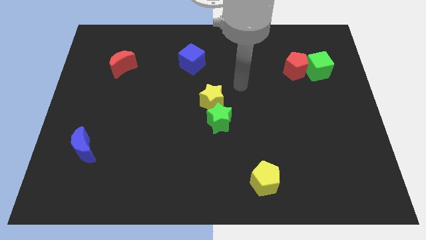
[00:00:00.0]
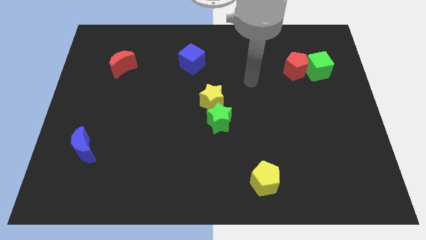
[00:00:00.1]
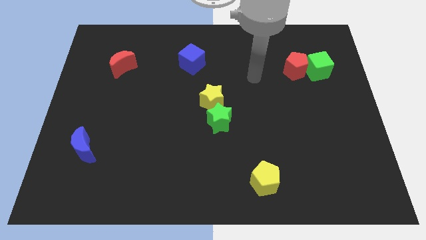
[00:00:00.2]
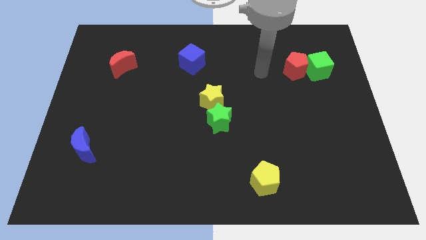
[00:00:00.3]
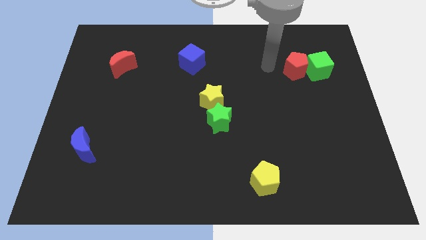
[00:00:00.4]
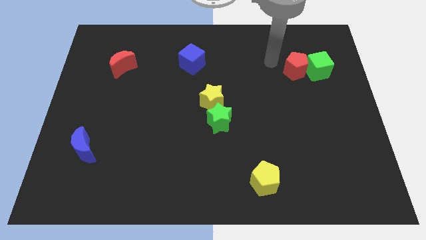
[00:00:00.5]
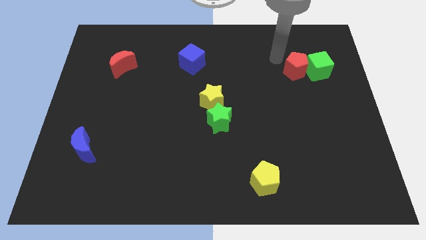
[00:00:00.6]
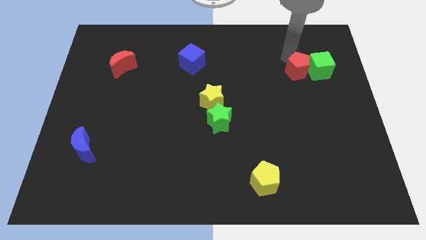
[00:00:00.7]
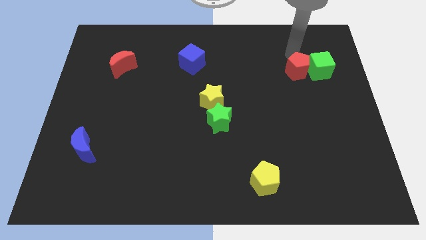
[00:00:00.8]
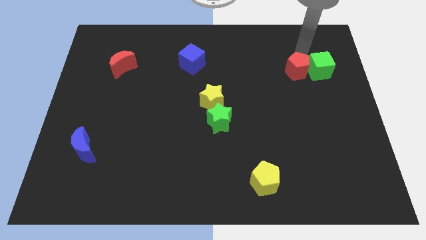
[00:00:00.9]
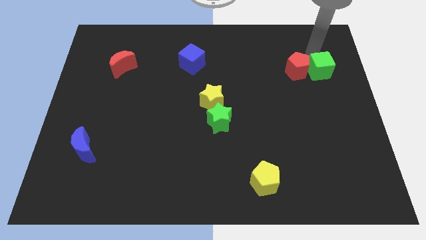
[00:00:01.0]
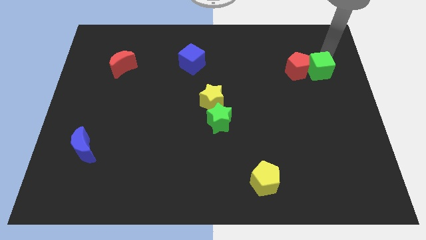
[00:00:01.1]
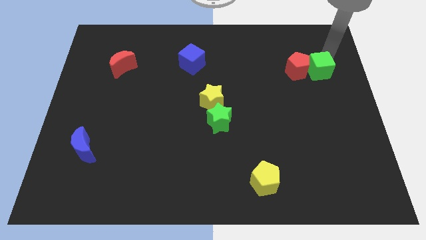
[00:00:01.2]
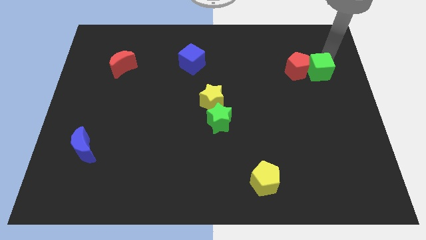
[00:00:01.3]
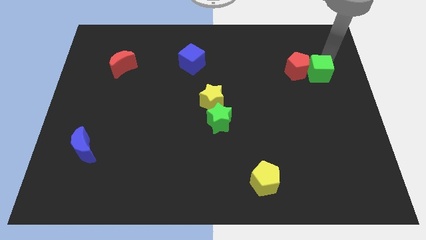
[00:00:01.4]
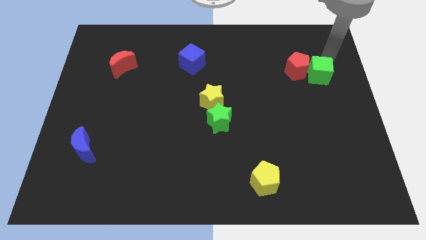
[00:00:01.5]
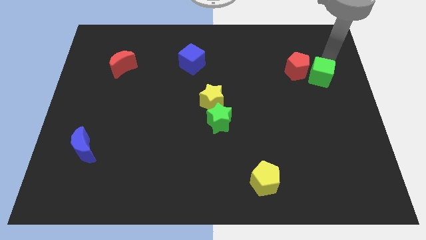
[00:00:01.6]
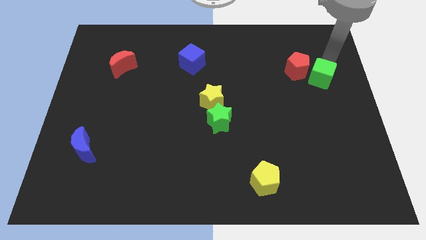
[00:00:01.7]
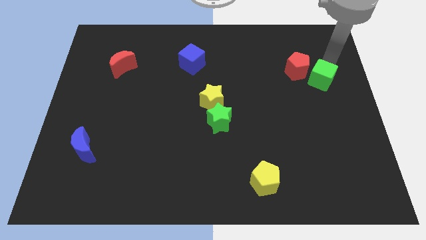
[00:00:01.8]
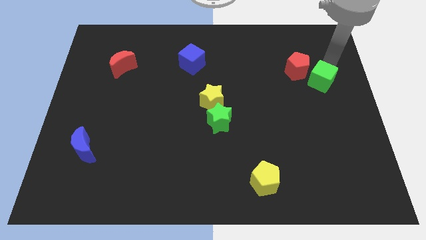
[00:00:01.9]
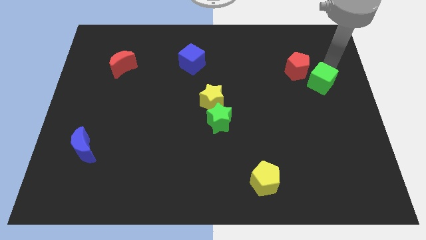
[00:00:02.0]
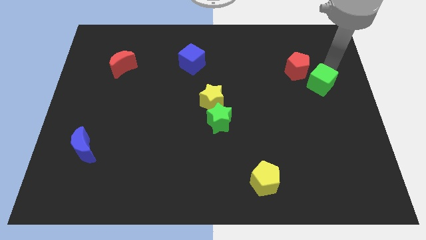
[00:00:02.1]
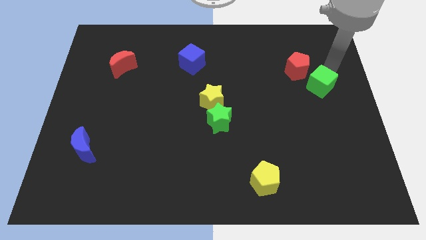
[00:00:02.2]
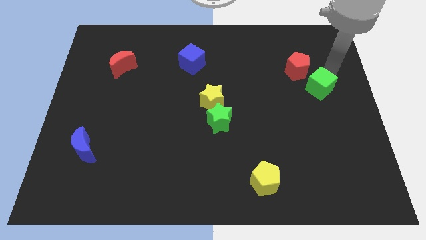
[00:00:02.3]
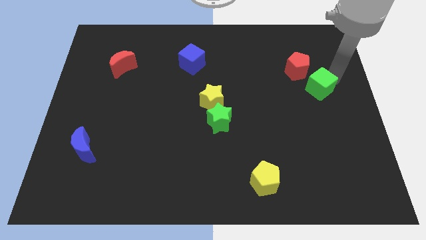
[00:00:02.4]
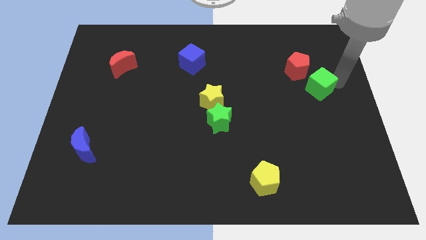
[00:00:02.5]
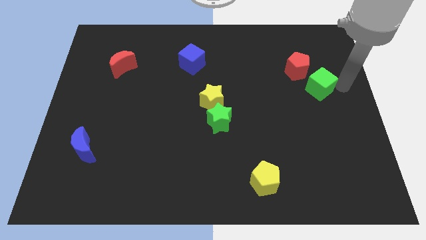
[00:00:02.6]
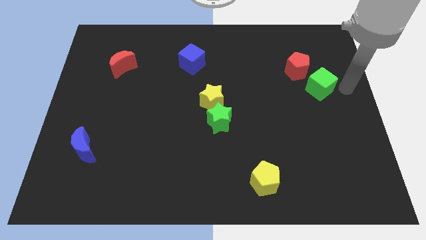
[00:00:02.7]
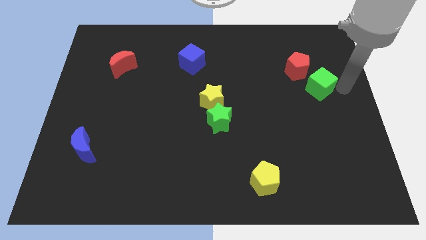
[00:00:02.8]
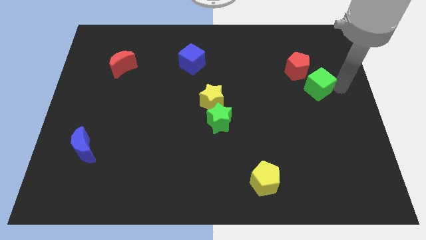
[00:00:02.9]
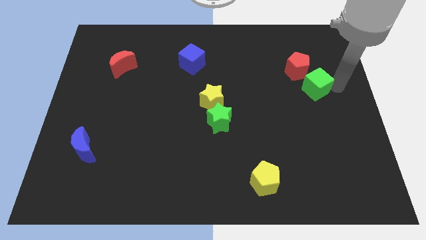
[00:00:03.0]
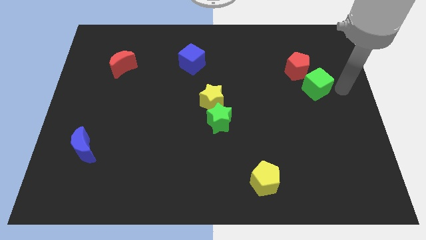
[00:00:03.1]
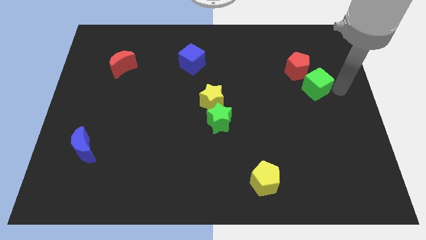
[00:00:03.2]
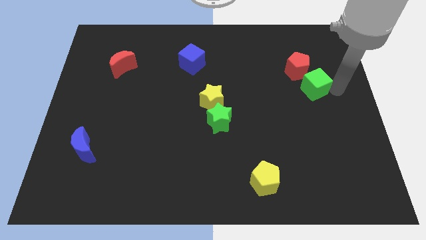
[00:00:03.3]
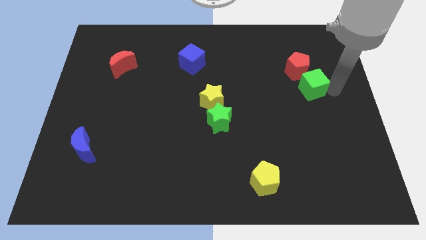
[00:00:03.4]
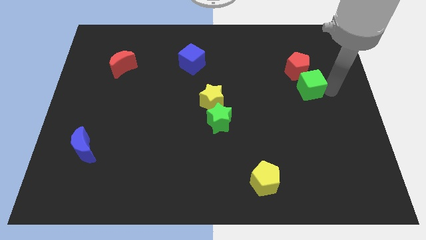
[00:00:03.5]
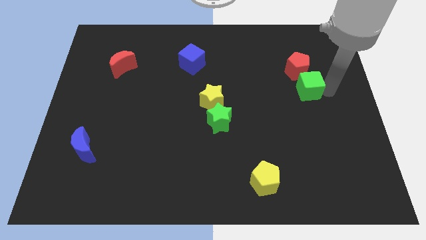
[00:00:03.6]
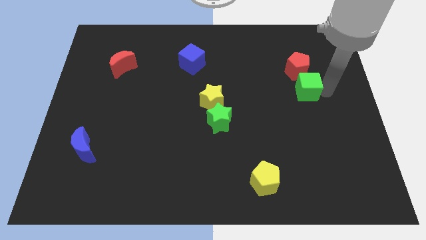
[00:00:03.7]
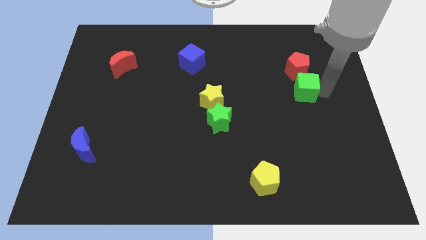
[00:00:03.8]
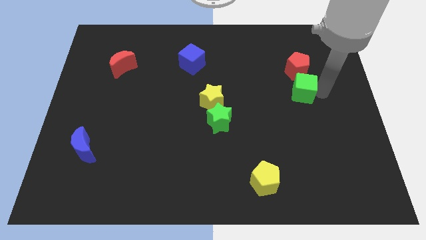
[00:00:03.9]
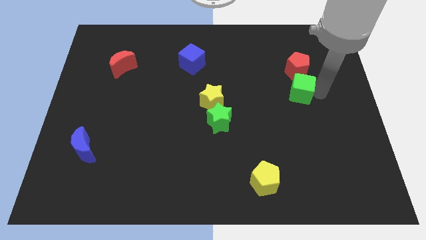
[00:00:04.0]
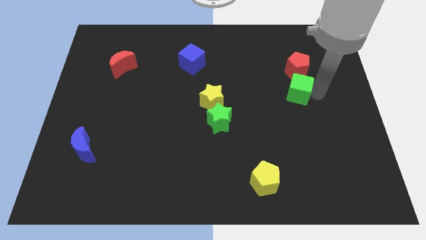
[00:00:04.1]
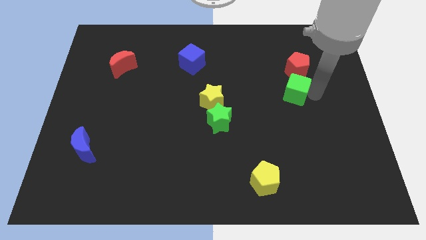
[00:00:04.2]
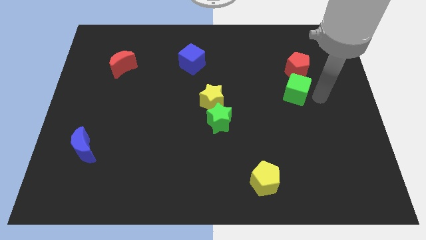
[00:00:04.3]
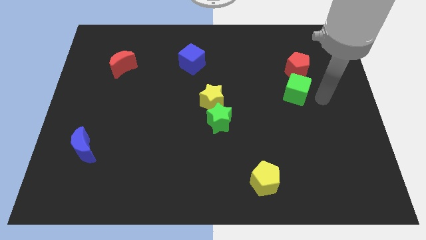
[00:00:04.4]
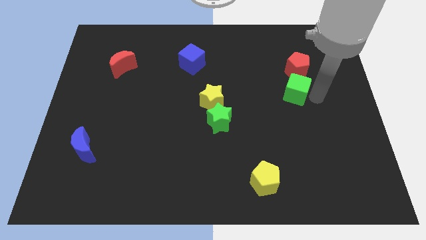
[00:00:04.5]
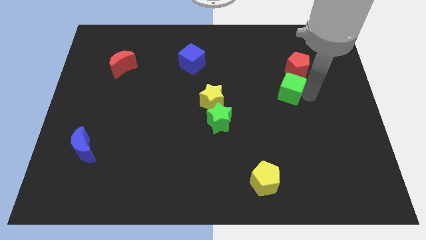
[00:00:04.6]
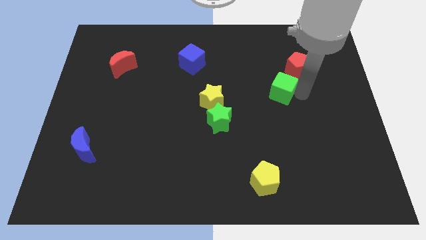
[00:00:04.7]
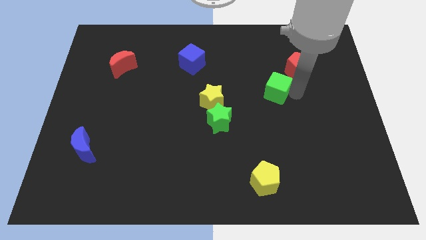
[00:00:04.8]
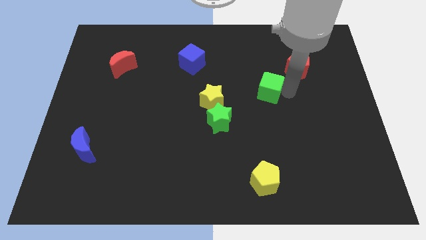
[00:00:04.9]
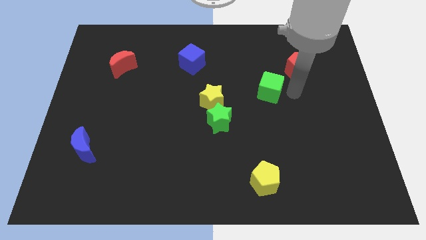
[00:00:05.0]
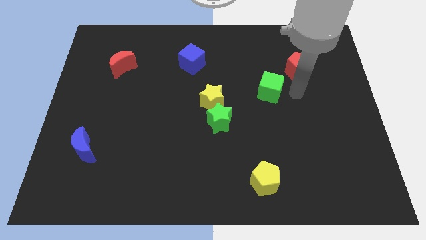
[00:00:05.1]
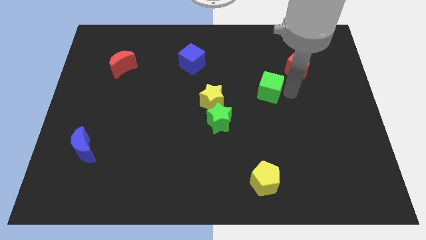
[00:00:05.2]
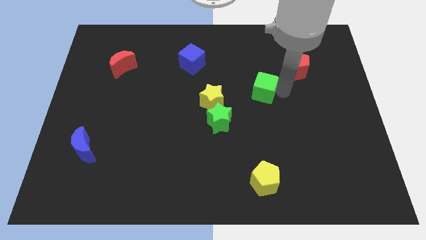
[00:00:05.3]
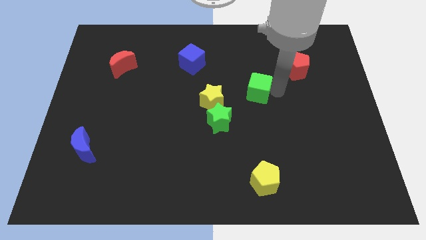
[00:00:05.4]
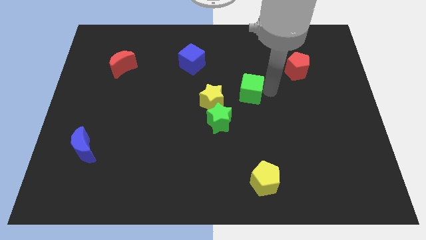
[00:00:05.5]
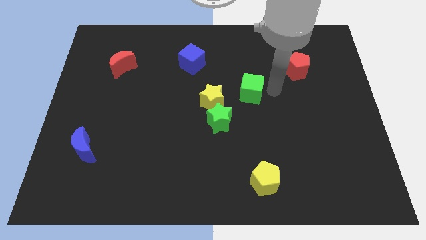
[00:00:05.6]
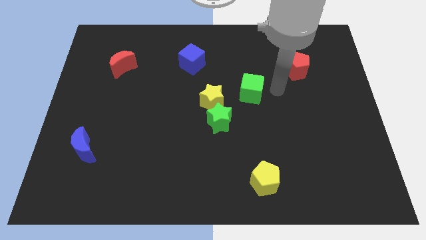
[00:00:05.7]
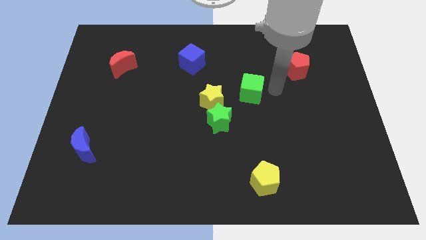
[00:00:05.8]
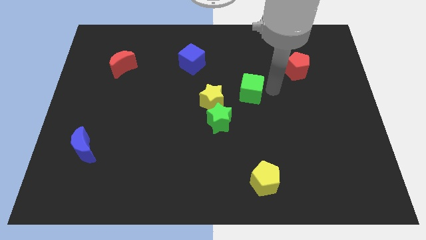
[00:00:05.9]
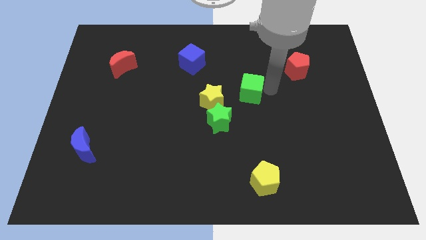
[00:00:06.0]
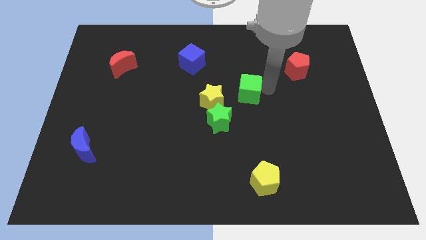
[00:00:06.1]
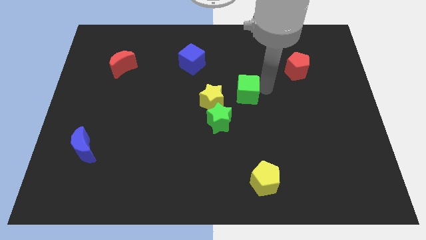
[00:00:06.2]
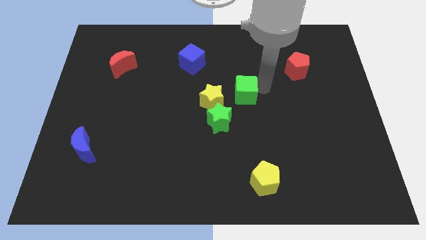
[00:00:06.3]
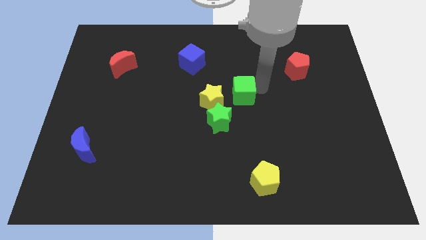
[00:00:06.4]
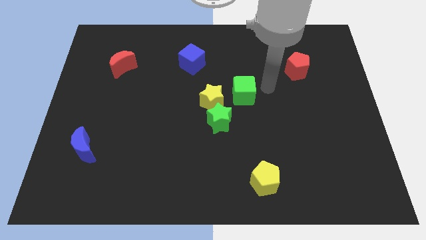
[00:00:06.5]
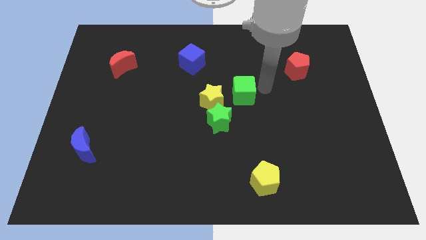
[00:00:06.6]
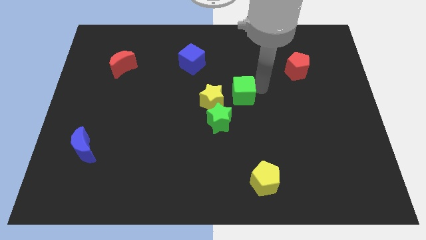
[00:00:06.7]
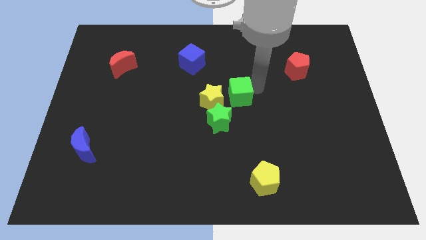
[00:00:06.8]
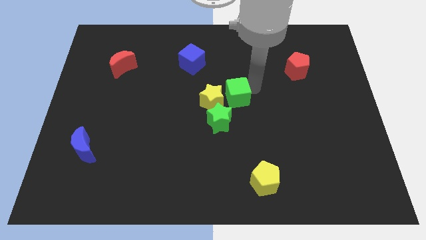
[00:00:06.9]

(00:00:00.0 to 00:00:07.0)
put the green cube next to the yellow star
